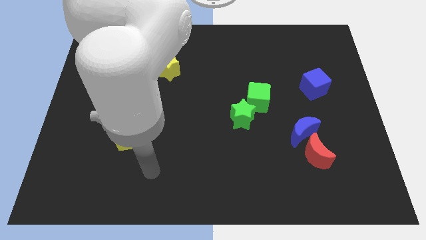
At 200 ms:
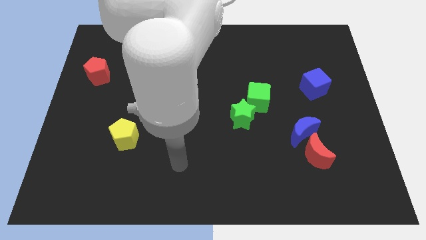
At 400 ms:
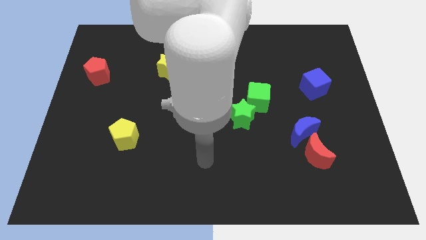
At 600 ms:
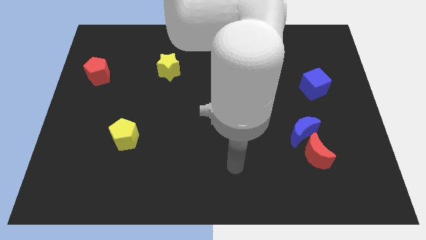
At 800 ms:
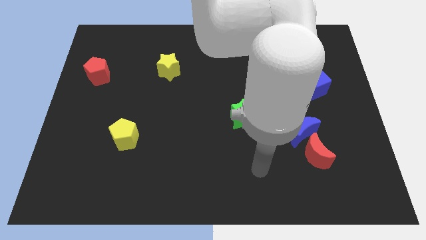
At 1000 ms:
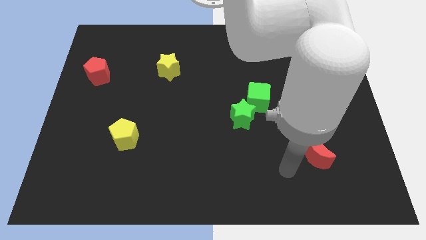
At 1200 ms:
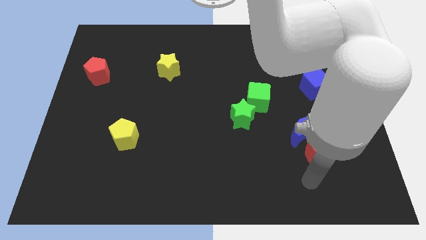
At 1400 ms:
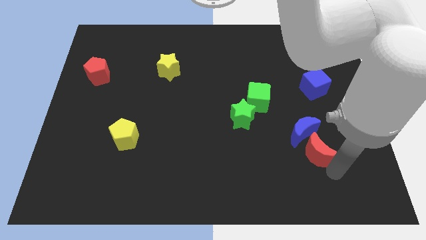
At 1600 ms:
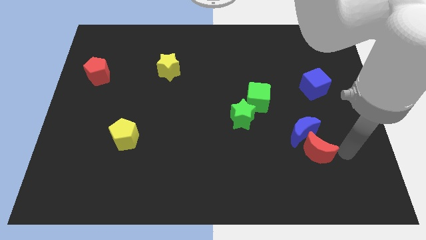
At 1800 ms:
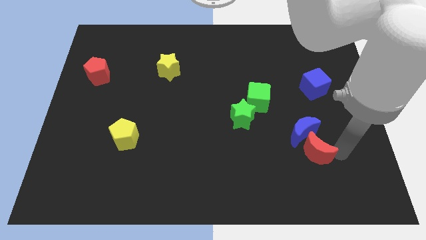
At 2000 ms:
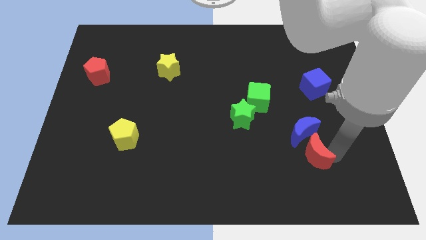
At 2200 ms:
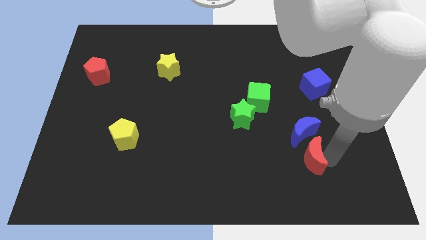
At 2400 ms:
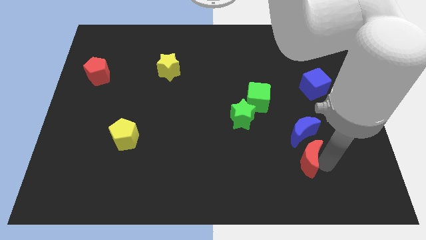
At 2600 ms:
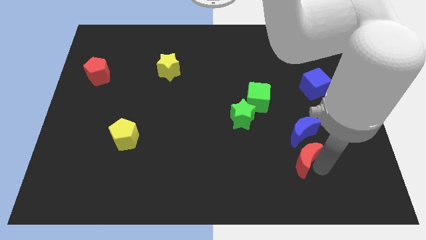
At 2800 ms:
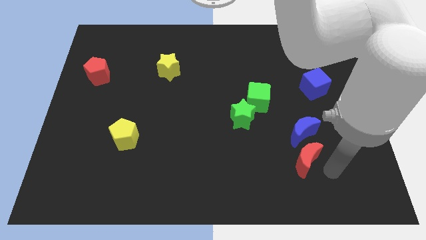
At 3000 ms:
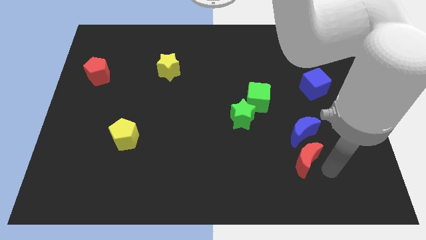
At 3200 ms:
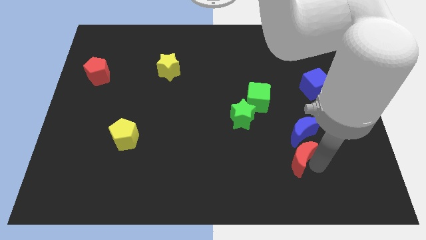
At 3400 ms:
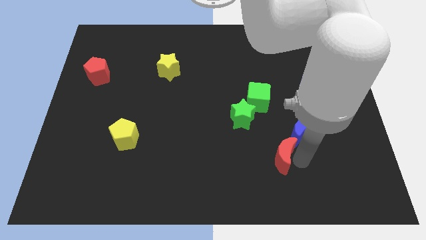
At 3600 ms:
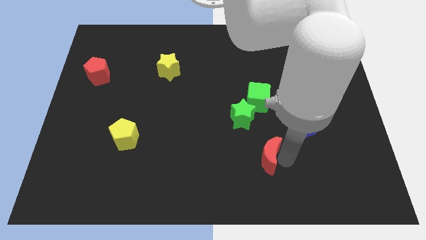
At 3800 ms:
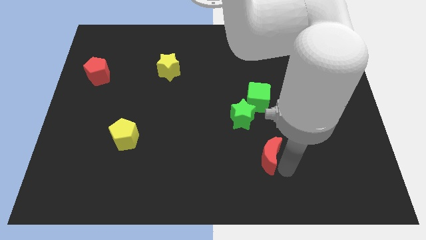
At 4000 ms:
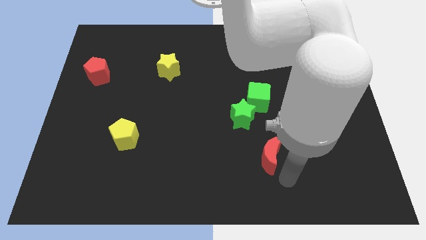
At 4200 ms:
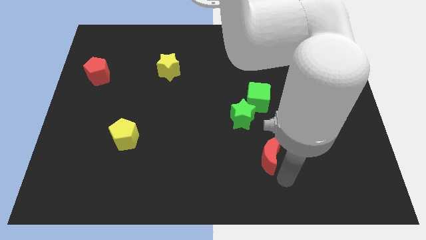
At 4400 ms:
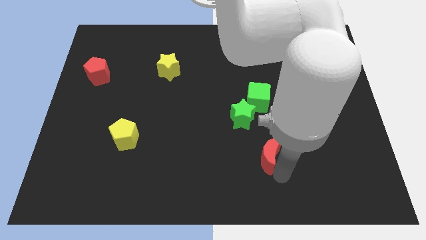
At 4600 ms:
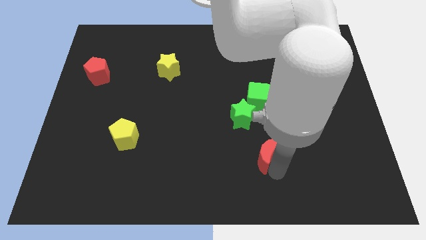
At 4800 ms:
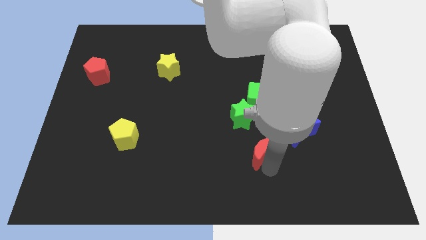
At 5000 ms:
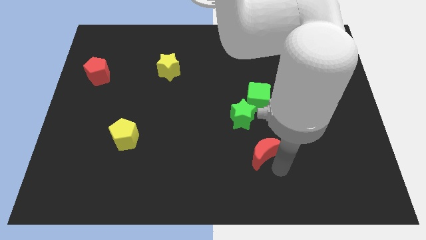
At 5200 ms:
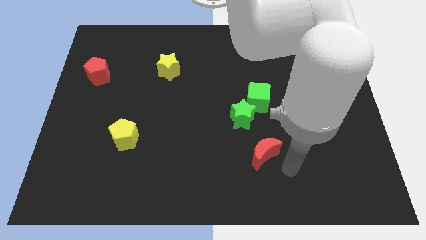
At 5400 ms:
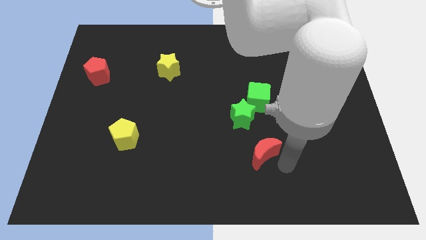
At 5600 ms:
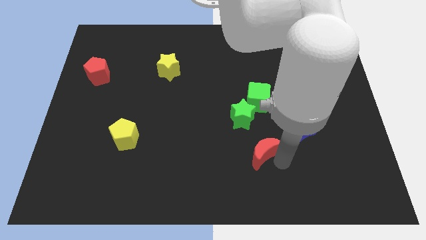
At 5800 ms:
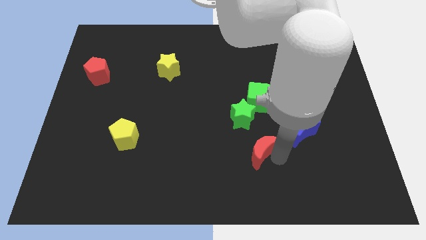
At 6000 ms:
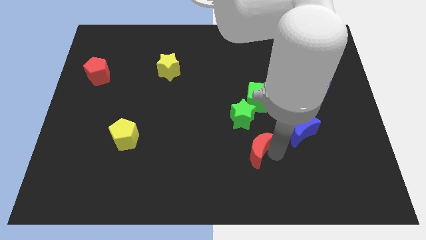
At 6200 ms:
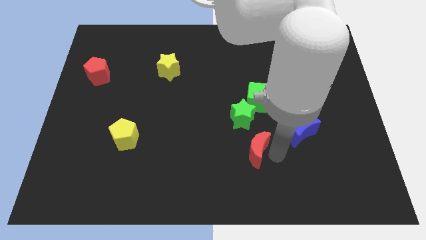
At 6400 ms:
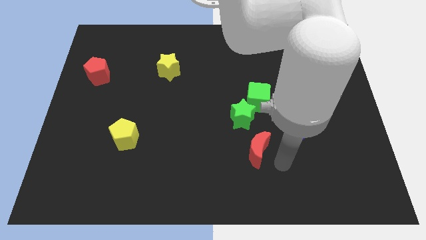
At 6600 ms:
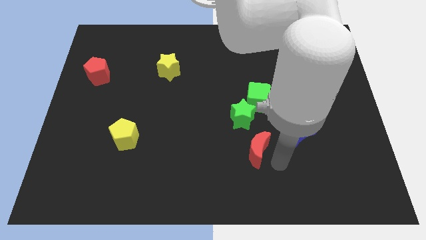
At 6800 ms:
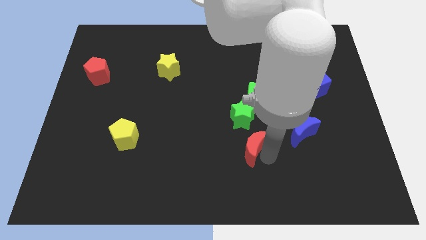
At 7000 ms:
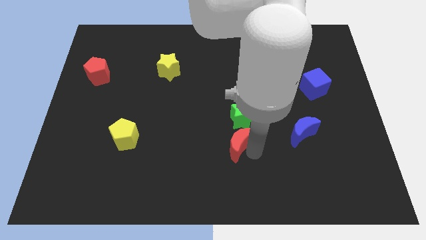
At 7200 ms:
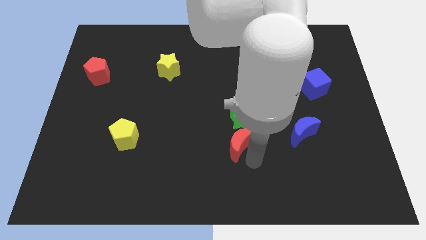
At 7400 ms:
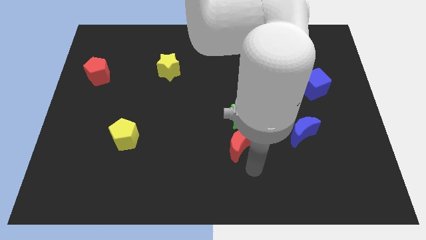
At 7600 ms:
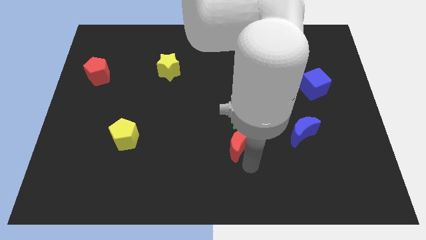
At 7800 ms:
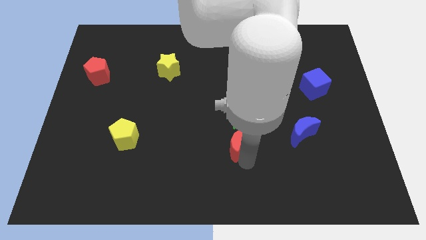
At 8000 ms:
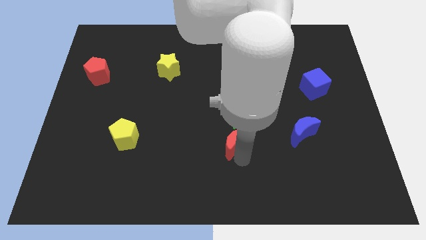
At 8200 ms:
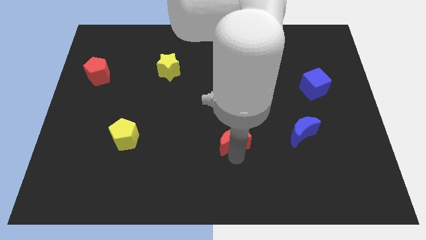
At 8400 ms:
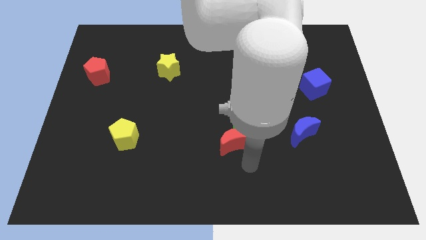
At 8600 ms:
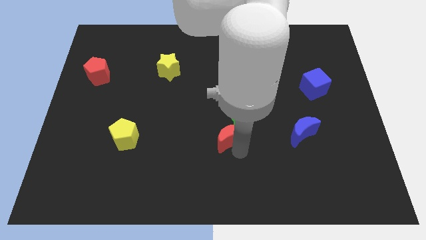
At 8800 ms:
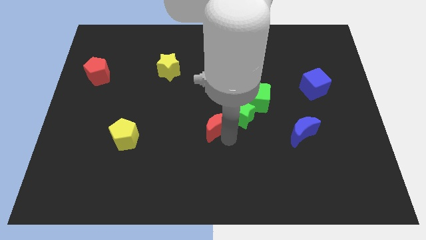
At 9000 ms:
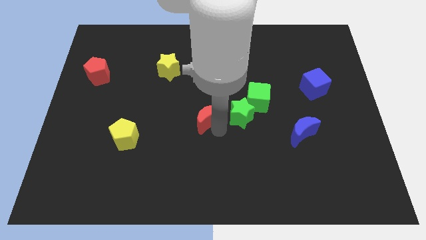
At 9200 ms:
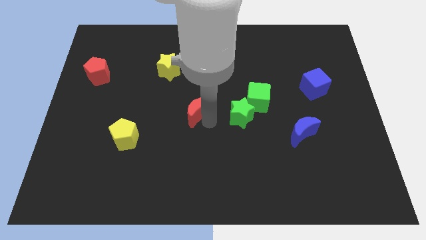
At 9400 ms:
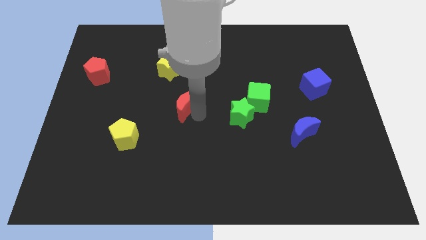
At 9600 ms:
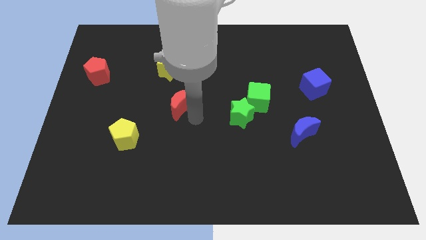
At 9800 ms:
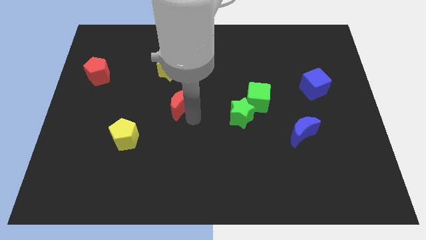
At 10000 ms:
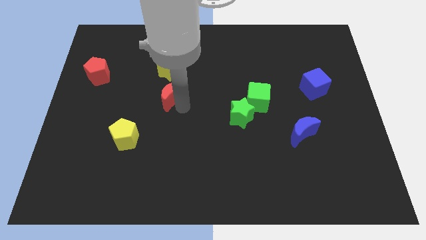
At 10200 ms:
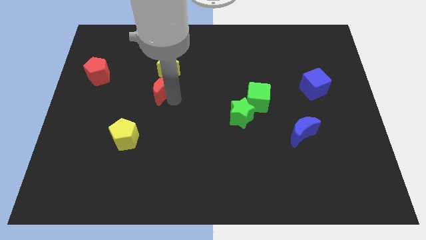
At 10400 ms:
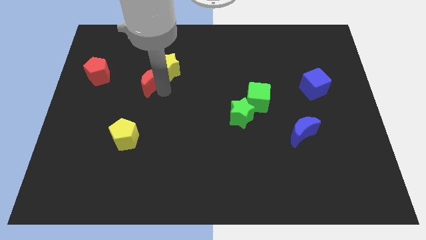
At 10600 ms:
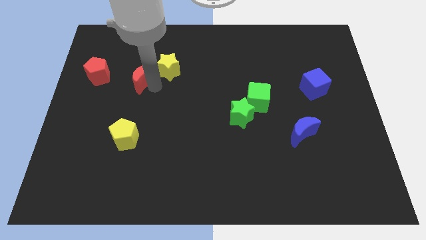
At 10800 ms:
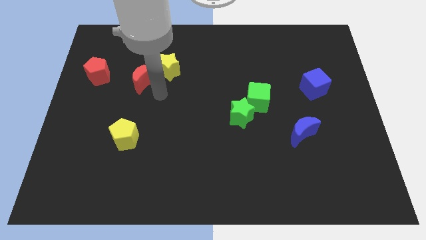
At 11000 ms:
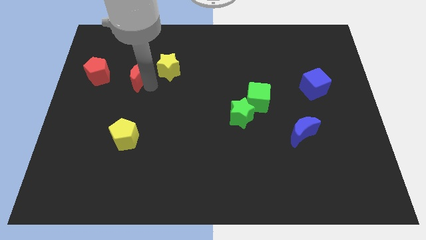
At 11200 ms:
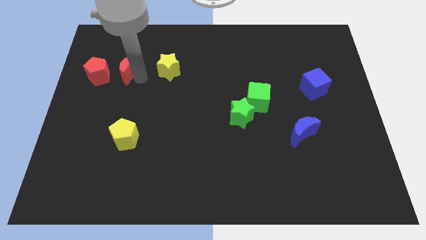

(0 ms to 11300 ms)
put the red moon to the top right side of the red pentagon
